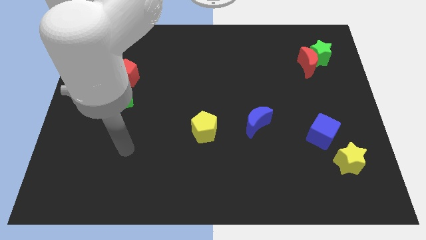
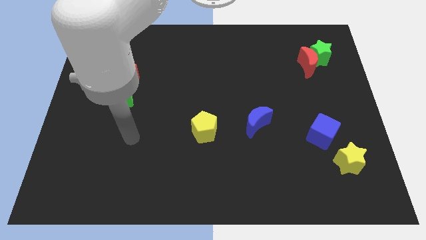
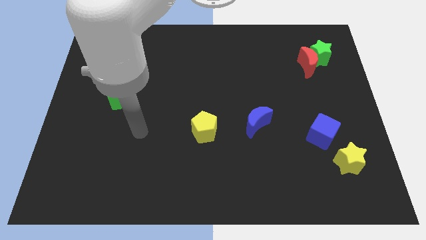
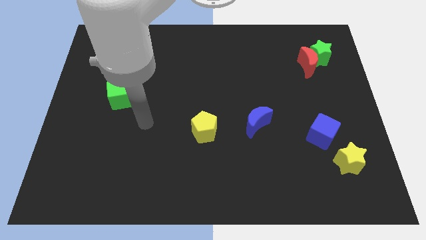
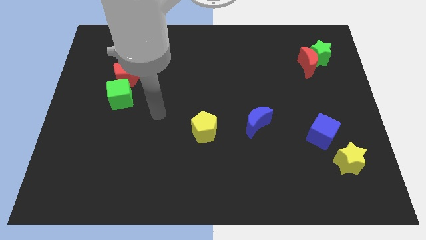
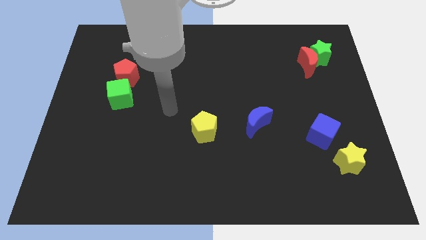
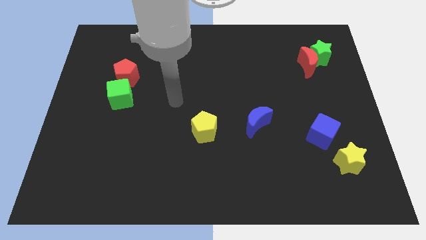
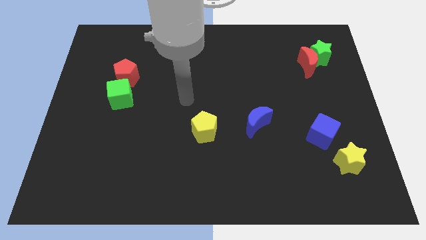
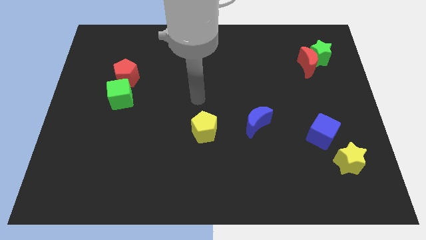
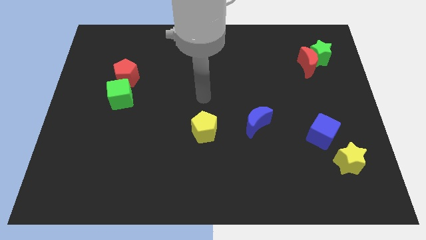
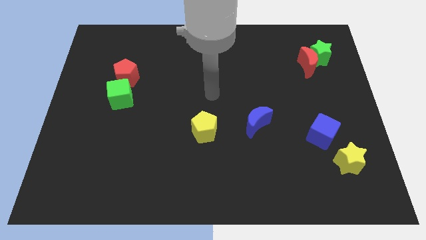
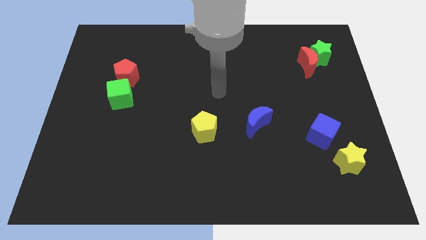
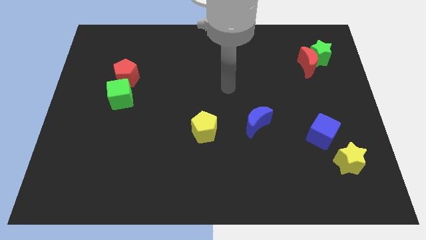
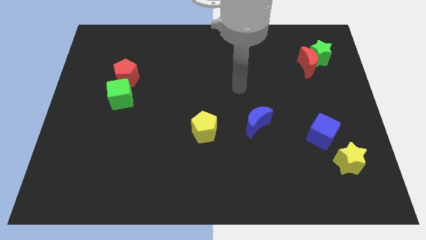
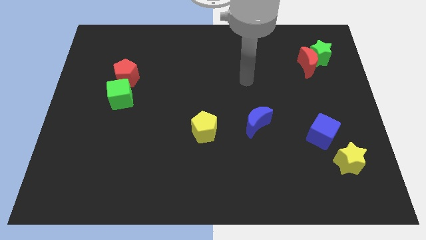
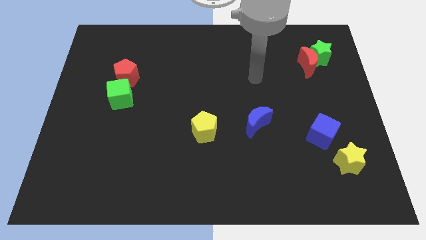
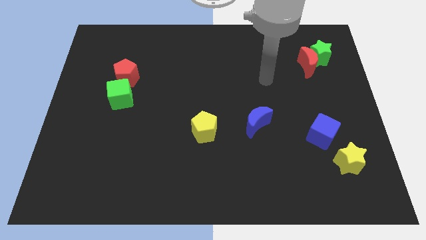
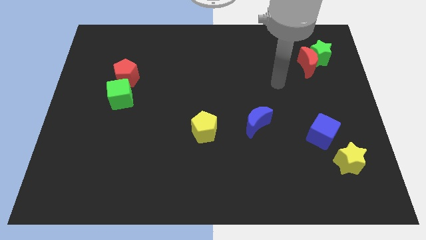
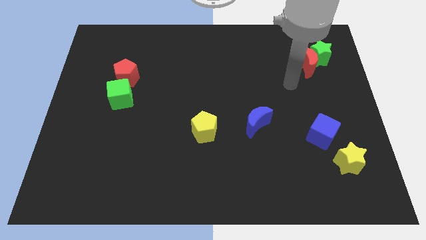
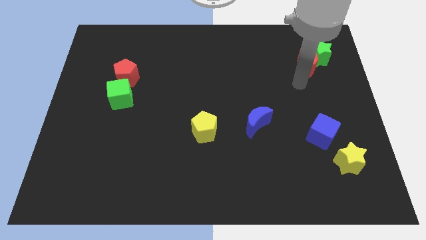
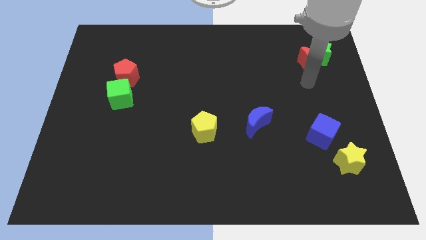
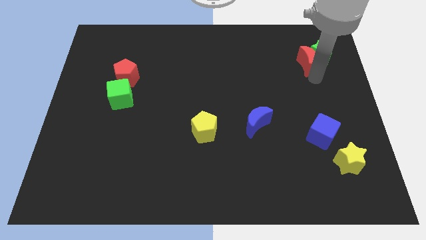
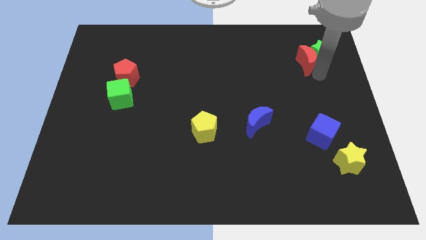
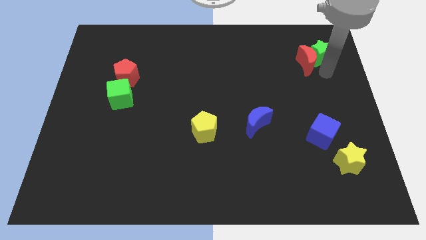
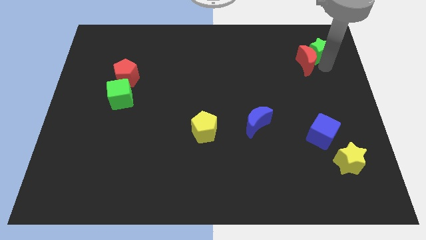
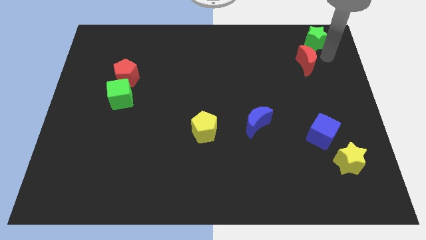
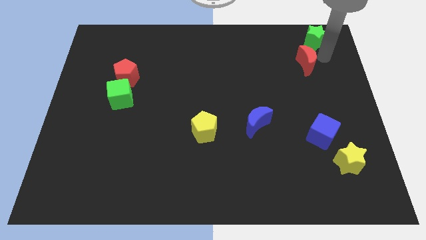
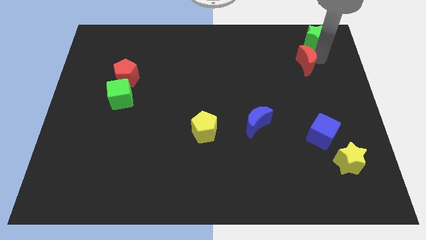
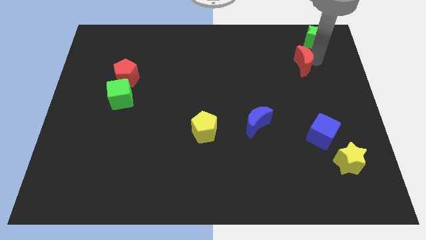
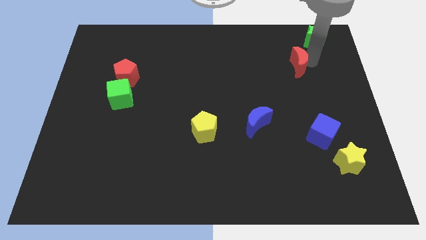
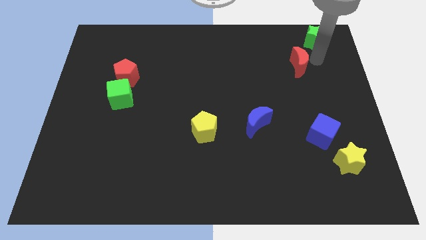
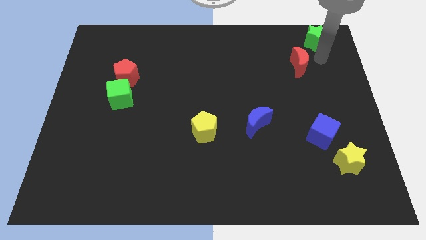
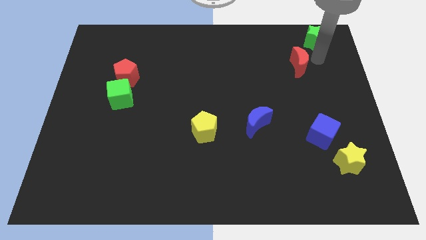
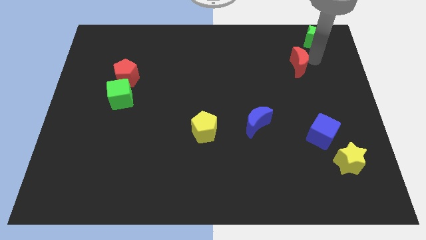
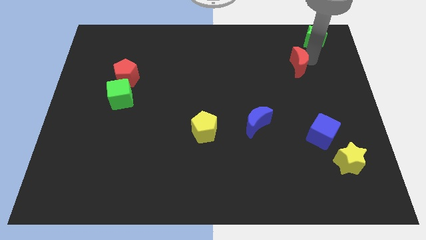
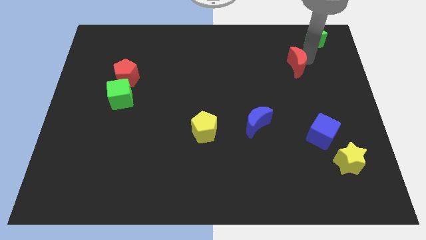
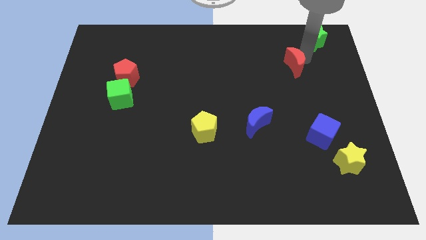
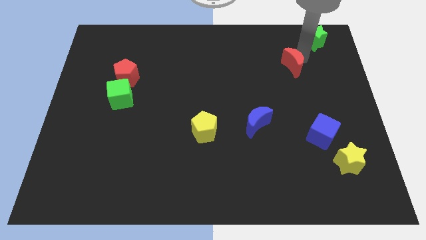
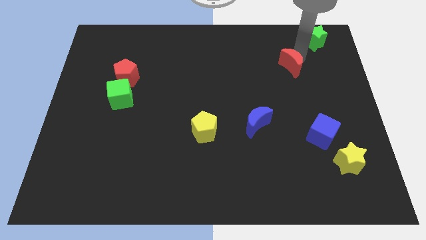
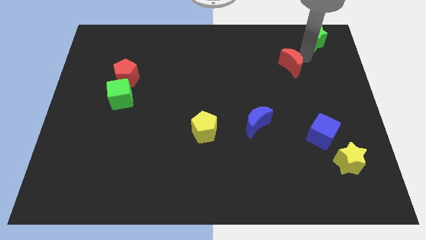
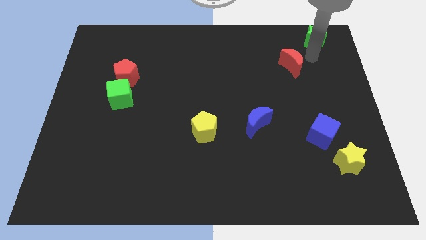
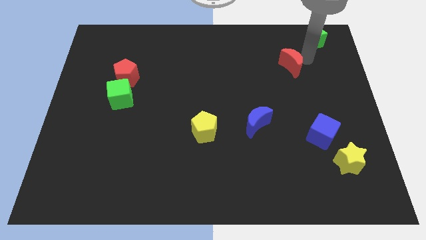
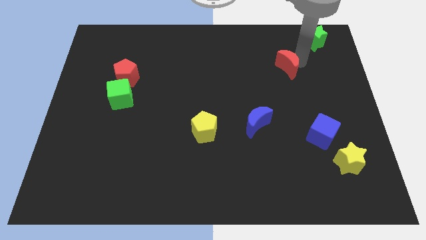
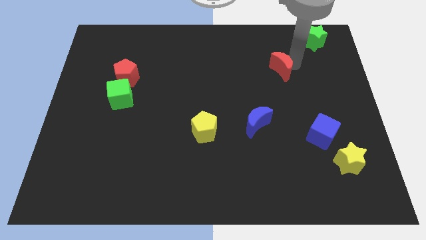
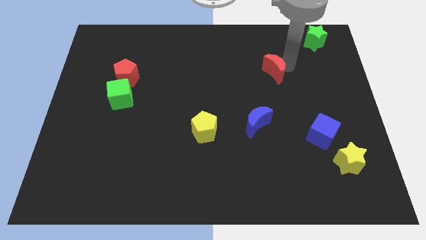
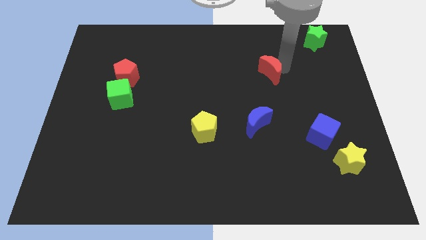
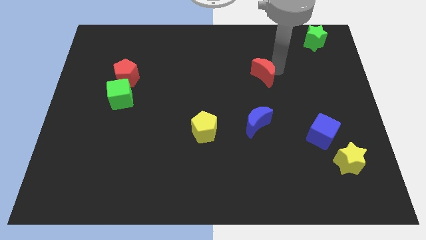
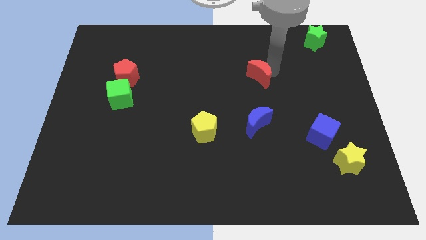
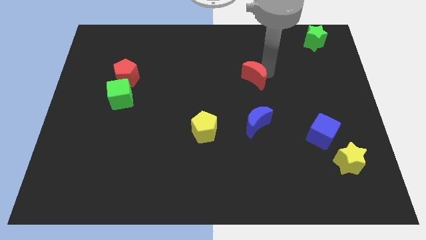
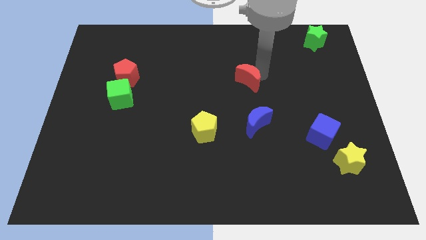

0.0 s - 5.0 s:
slide the red moon to the middle of the board

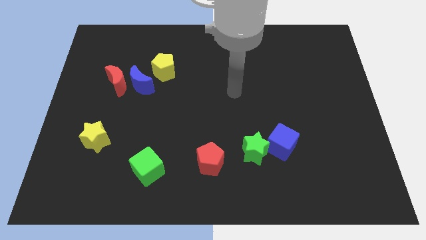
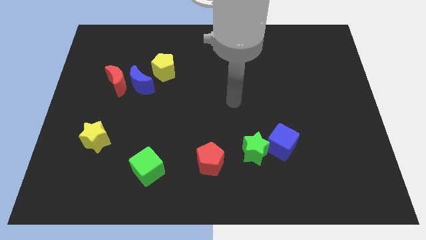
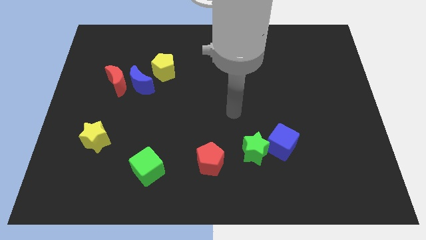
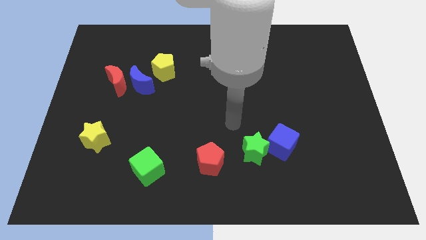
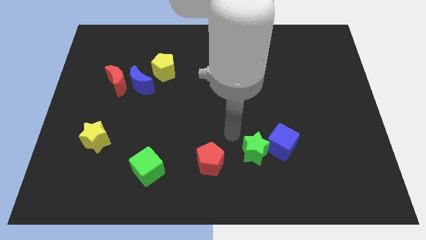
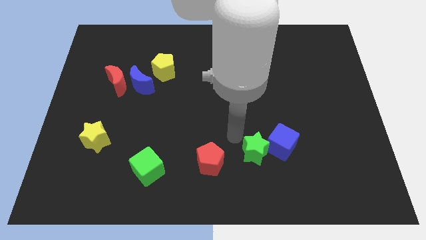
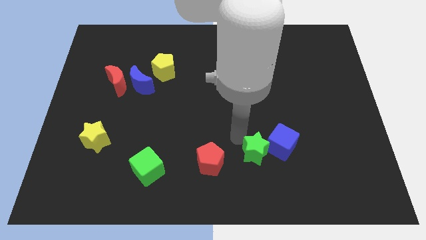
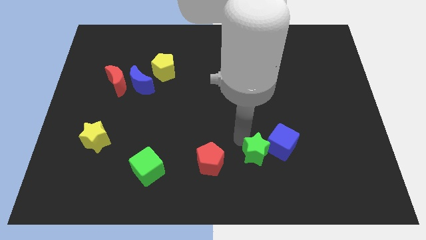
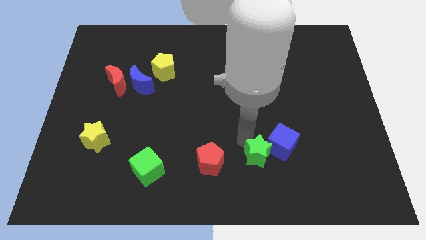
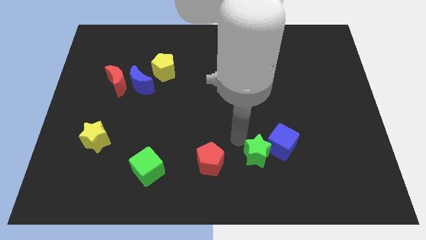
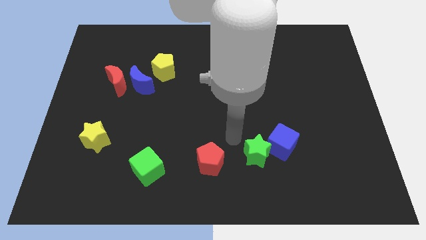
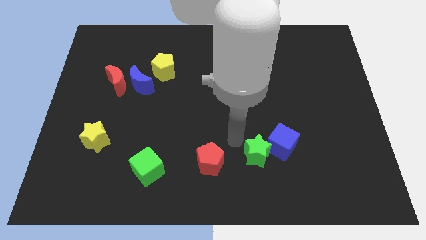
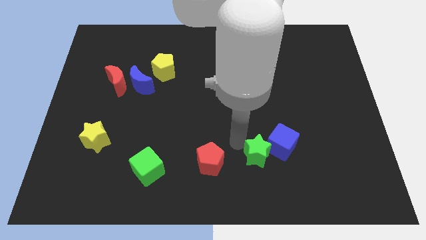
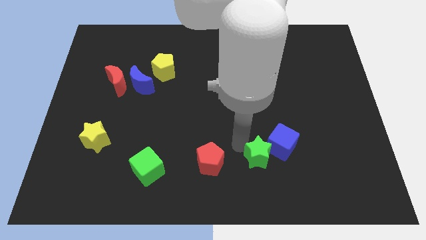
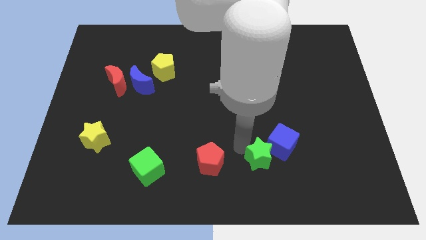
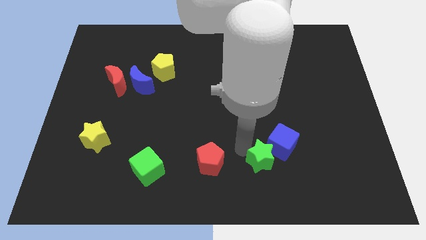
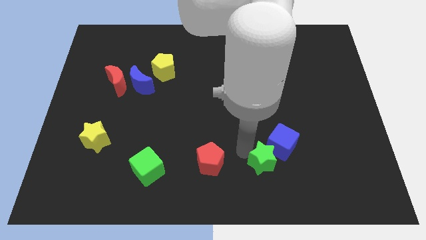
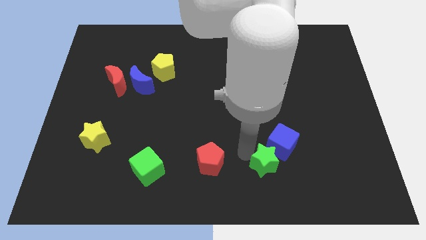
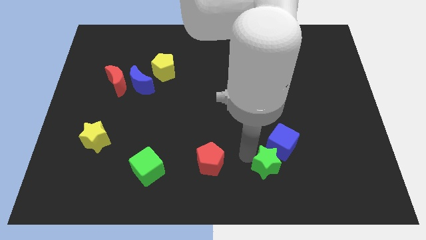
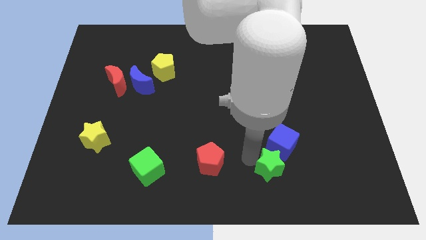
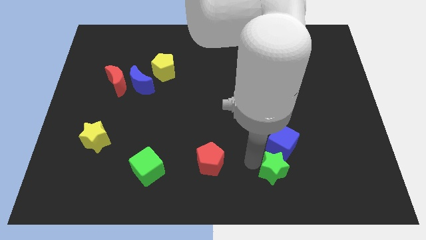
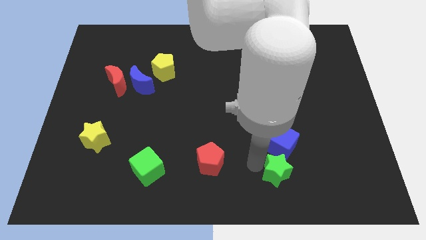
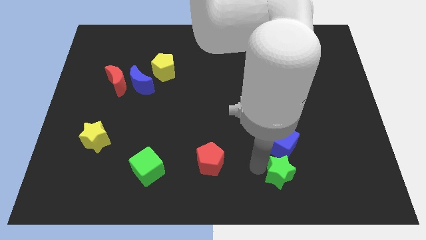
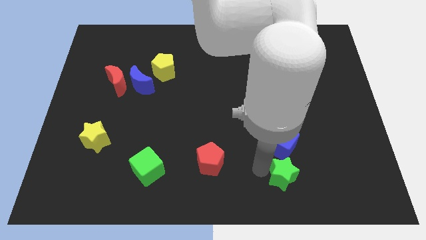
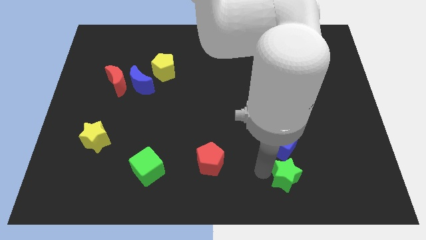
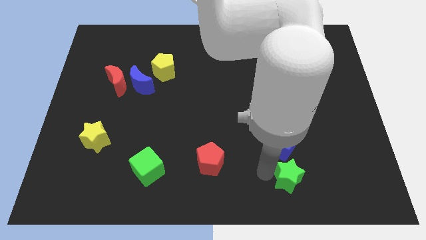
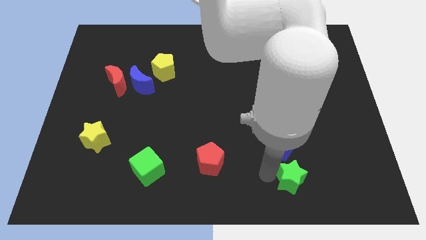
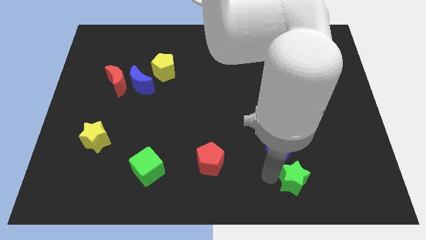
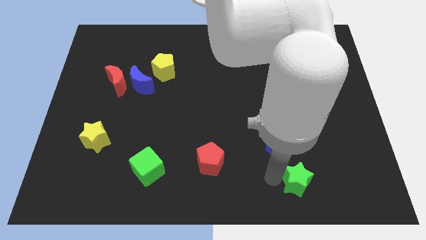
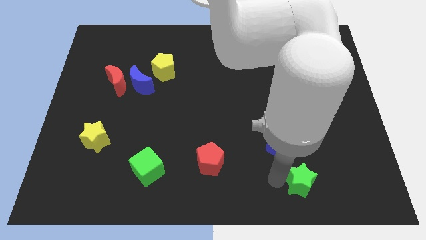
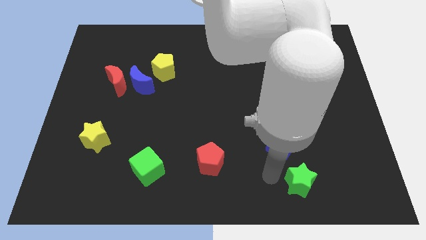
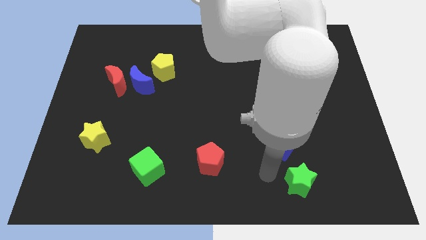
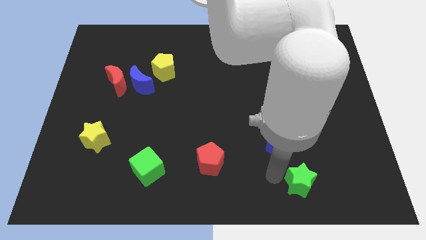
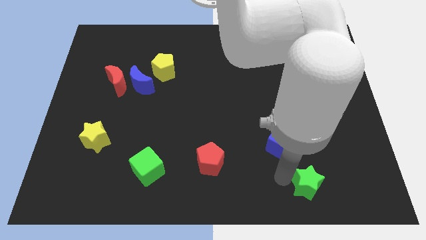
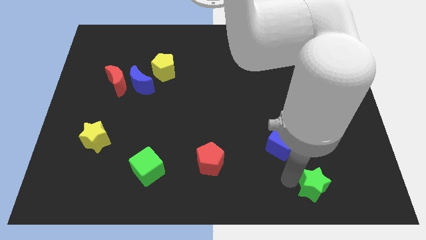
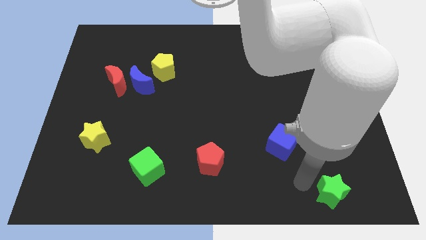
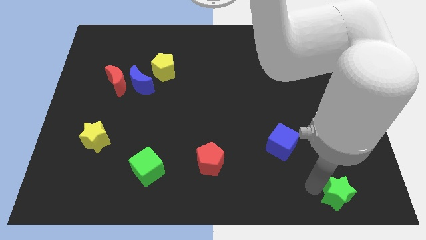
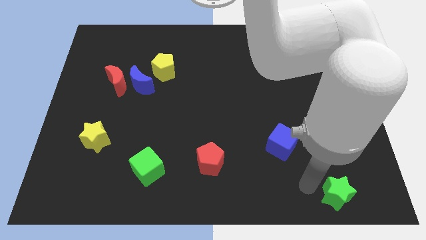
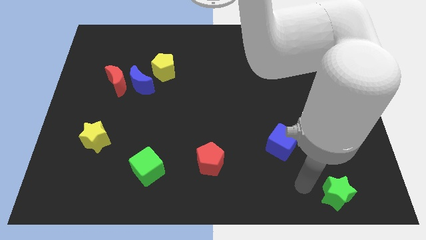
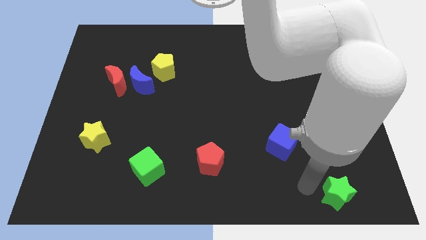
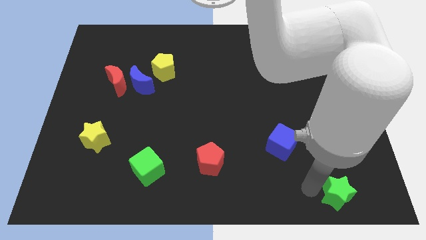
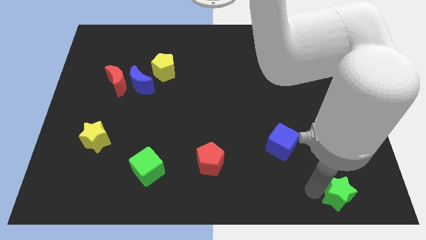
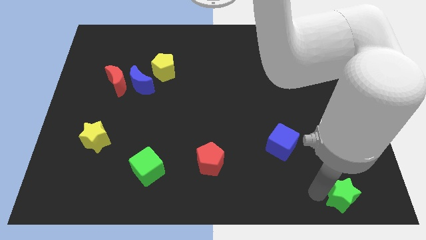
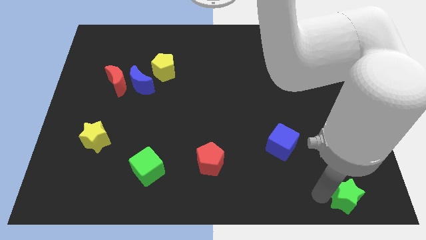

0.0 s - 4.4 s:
put the green star to the bottom right corner
